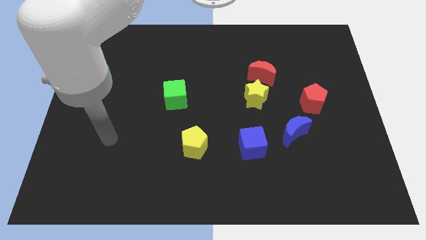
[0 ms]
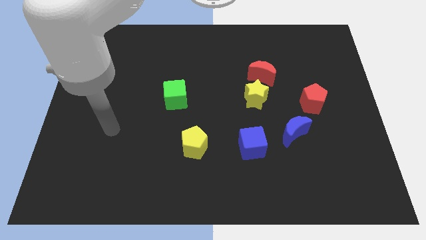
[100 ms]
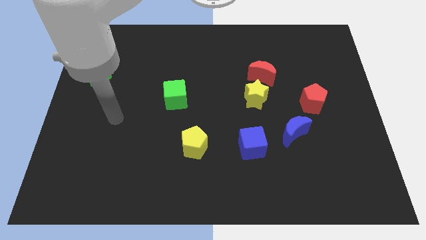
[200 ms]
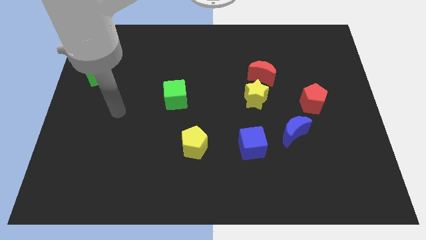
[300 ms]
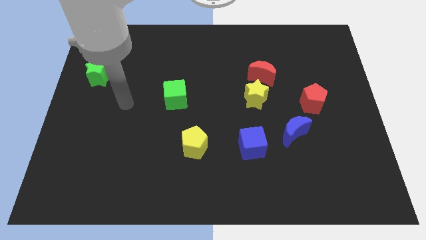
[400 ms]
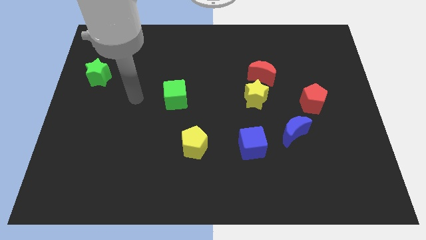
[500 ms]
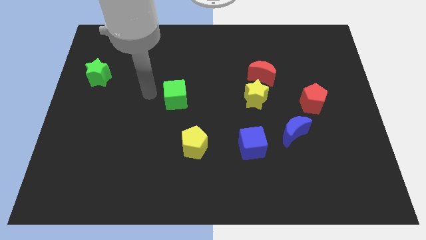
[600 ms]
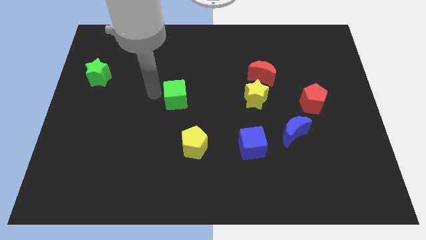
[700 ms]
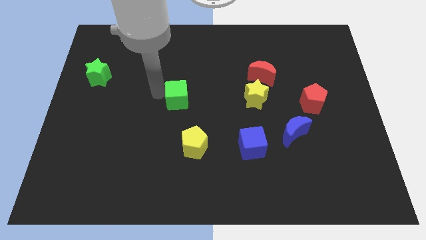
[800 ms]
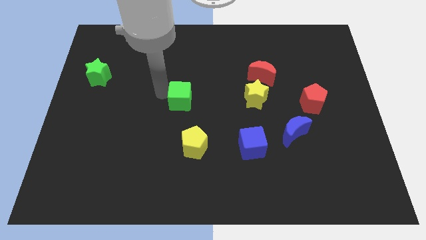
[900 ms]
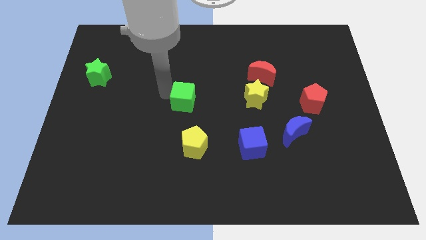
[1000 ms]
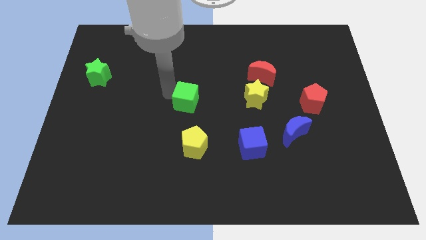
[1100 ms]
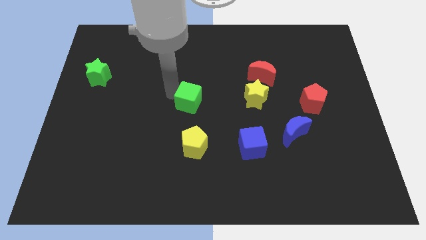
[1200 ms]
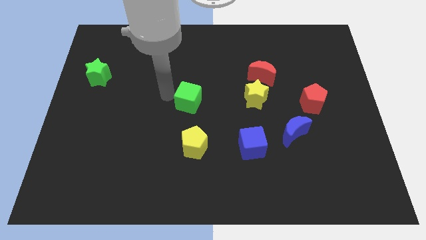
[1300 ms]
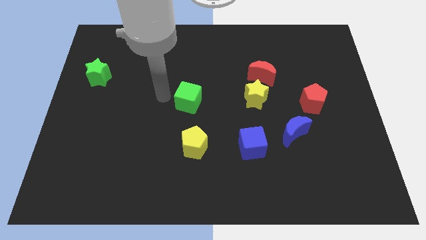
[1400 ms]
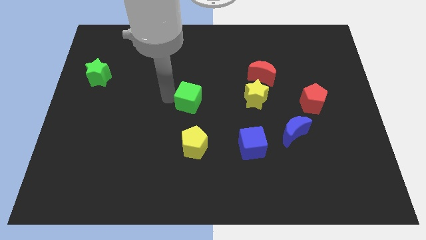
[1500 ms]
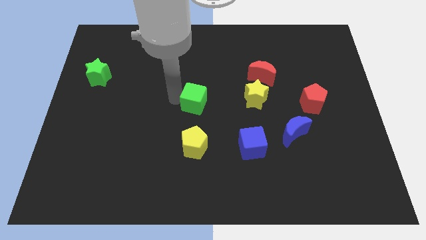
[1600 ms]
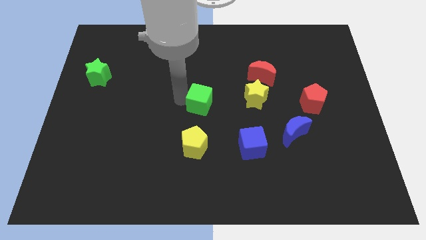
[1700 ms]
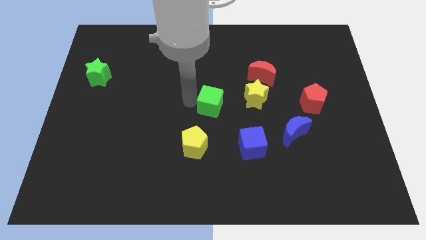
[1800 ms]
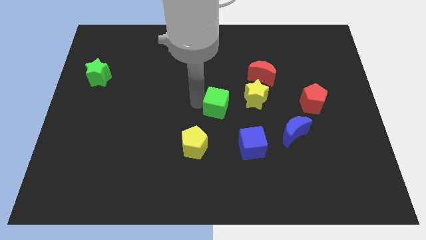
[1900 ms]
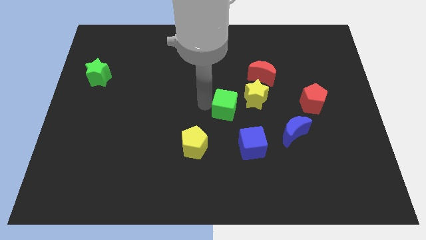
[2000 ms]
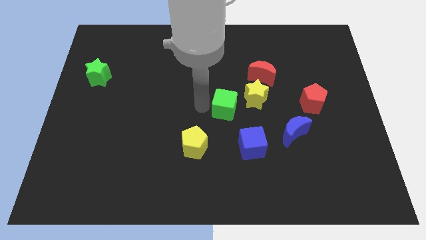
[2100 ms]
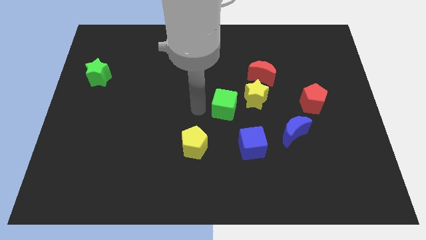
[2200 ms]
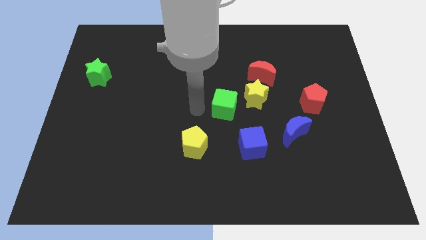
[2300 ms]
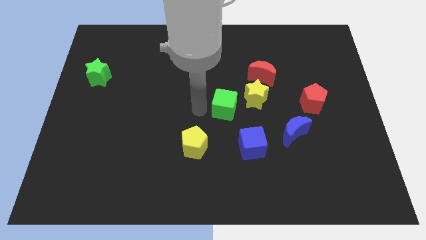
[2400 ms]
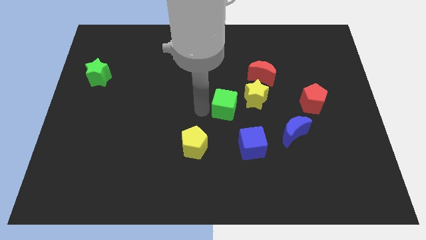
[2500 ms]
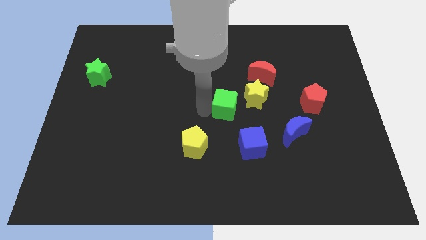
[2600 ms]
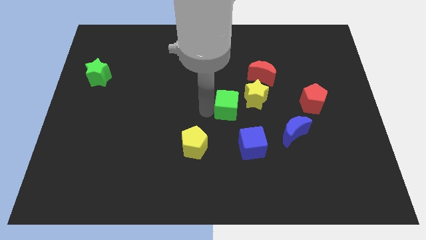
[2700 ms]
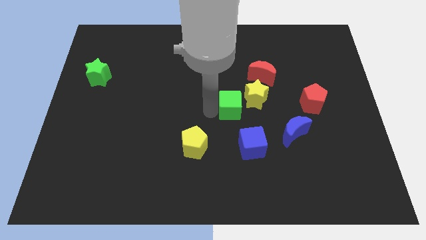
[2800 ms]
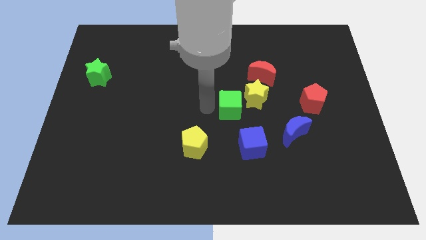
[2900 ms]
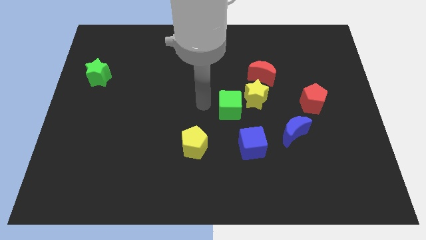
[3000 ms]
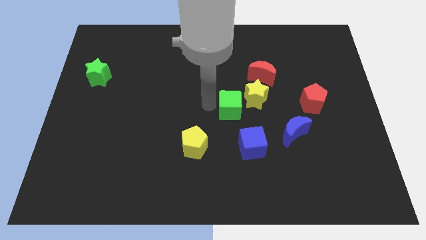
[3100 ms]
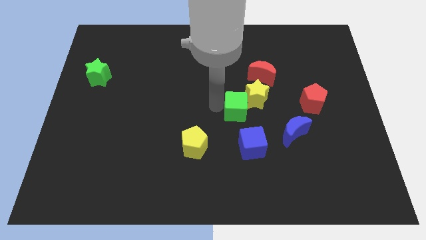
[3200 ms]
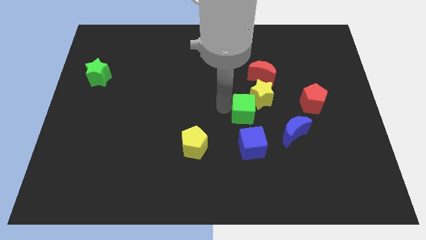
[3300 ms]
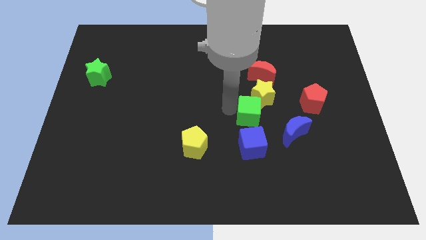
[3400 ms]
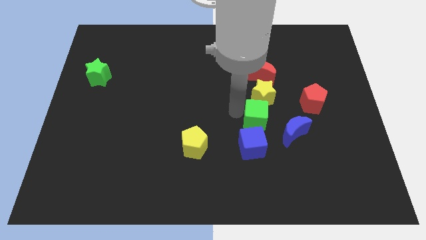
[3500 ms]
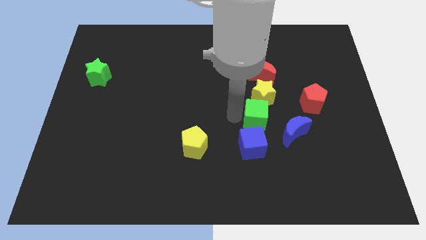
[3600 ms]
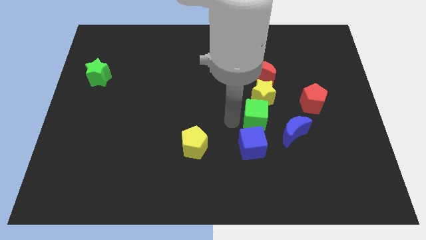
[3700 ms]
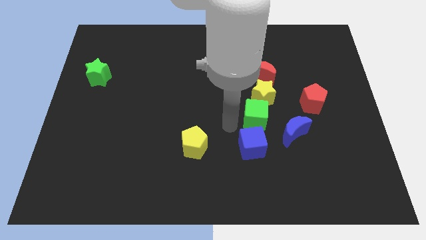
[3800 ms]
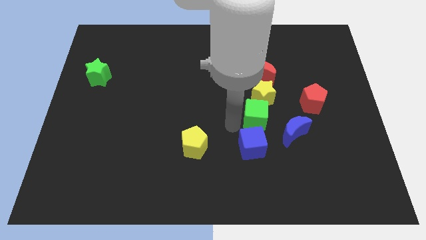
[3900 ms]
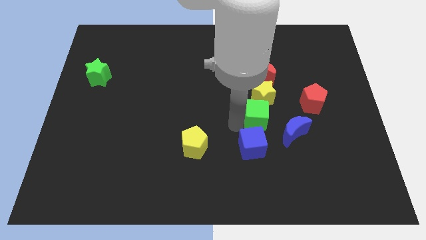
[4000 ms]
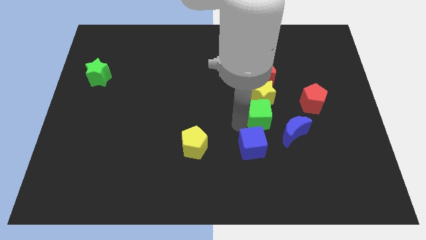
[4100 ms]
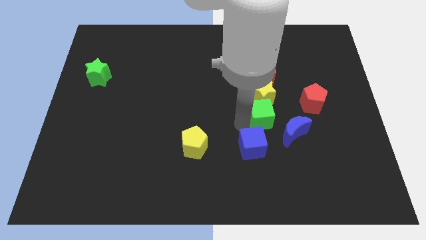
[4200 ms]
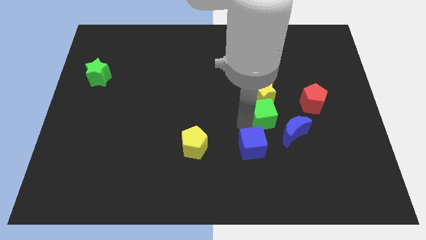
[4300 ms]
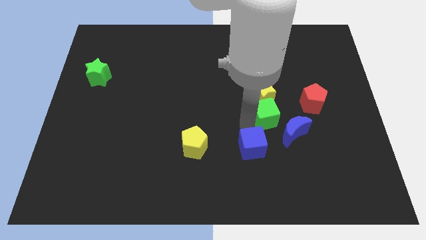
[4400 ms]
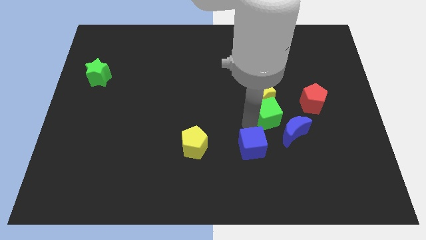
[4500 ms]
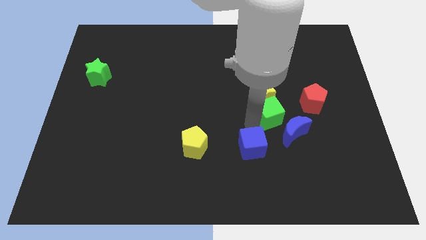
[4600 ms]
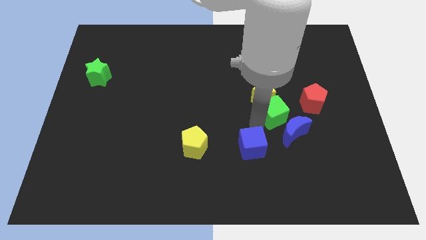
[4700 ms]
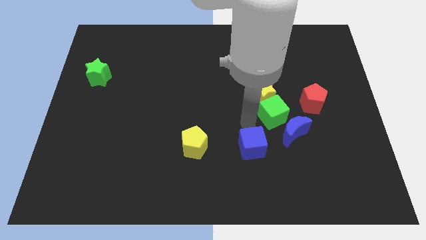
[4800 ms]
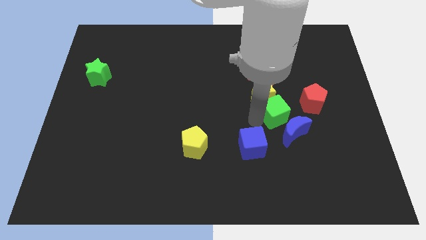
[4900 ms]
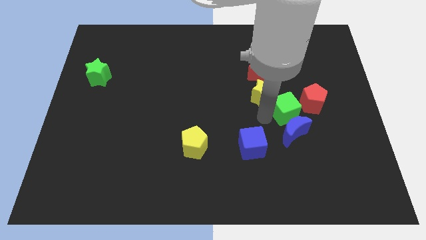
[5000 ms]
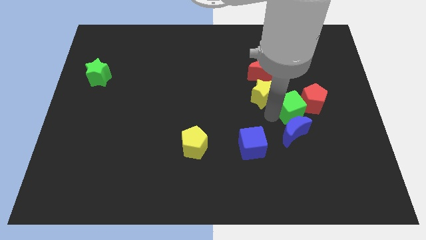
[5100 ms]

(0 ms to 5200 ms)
move the green cube towards the red pentagon
